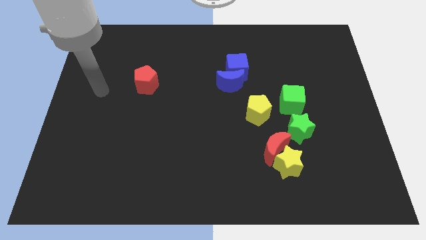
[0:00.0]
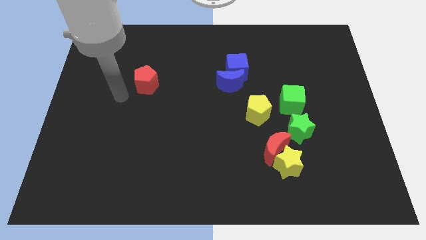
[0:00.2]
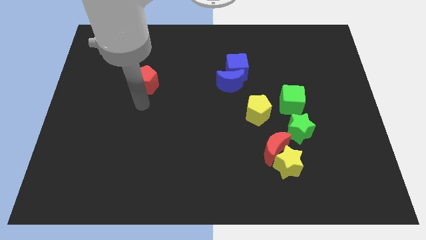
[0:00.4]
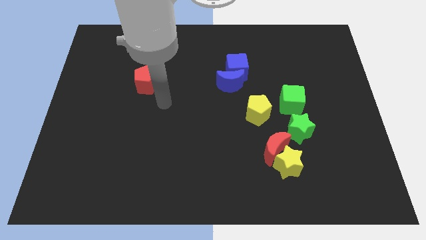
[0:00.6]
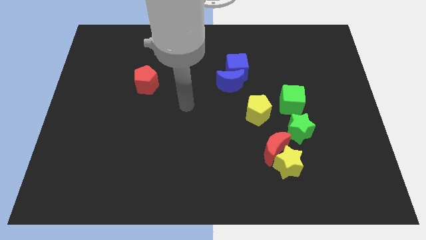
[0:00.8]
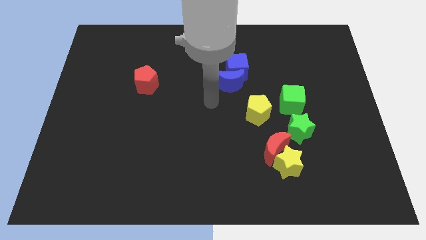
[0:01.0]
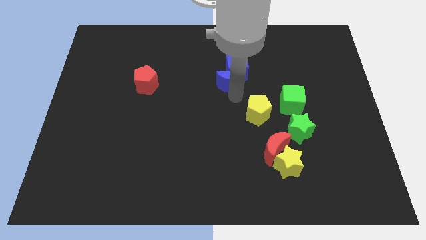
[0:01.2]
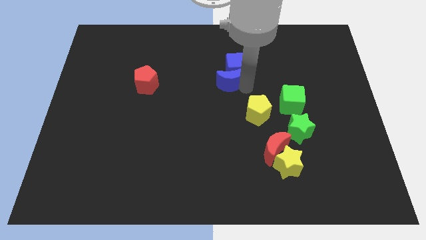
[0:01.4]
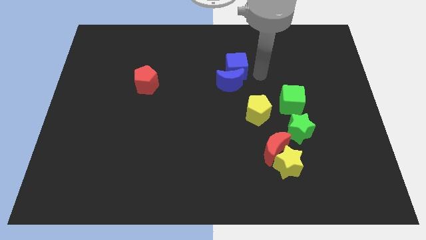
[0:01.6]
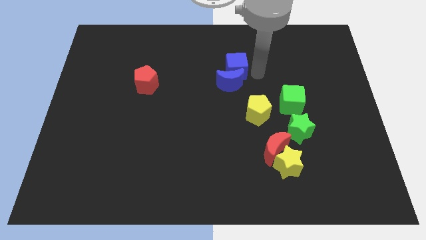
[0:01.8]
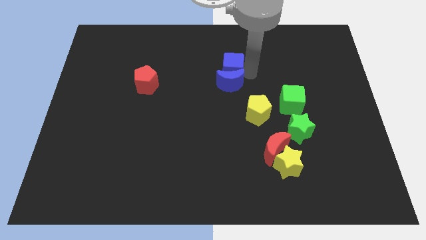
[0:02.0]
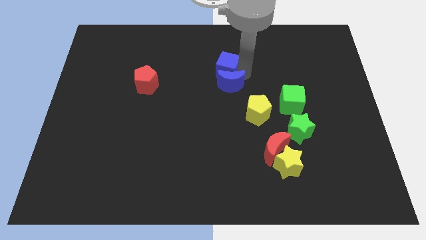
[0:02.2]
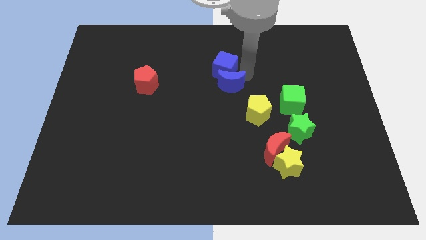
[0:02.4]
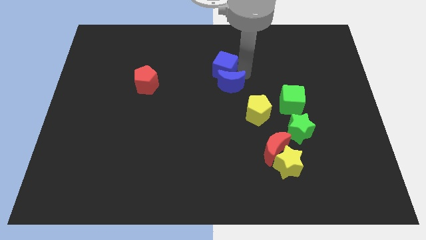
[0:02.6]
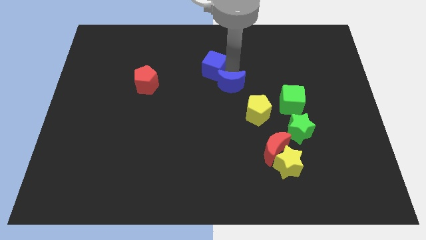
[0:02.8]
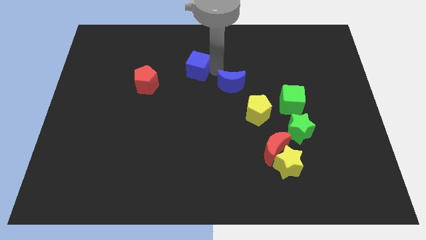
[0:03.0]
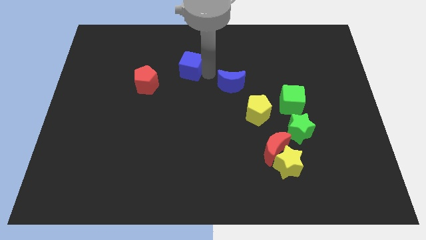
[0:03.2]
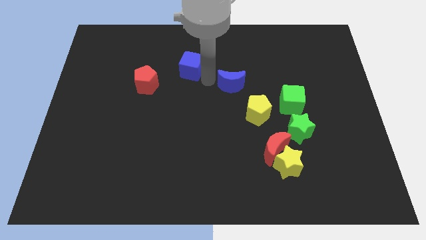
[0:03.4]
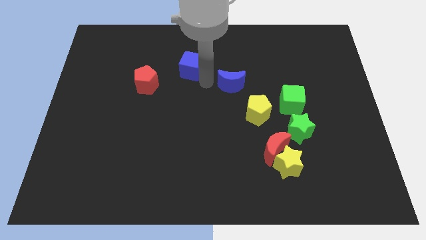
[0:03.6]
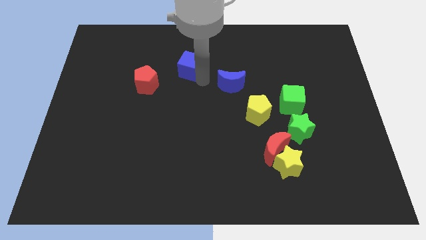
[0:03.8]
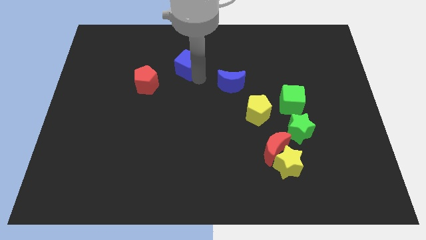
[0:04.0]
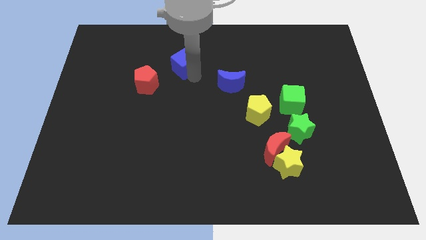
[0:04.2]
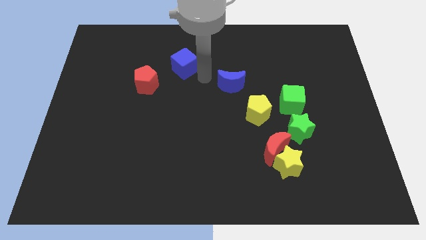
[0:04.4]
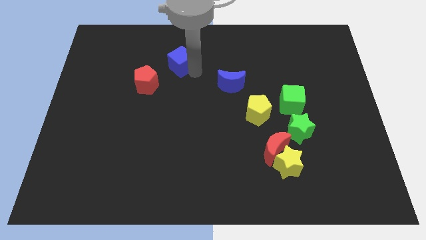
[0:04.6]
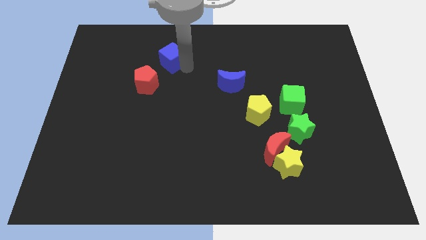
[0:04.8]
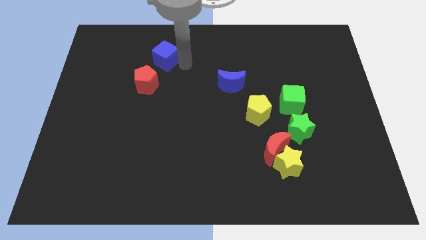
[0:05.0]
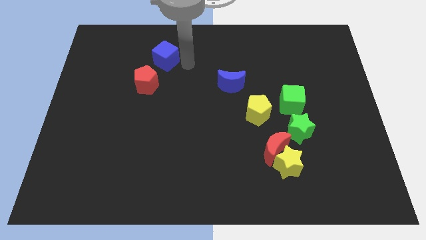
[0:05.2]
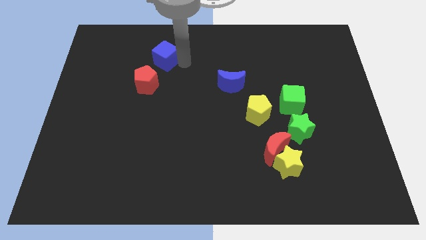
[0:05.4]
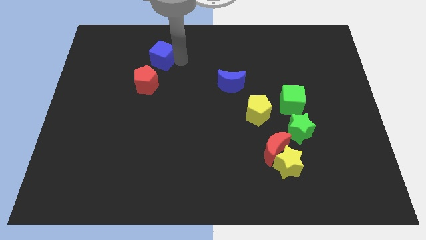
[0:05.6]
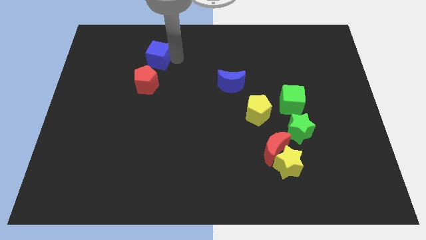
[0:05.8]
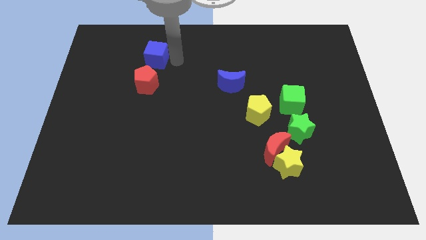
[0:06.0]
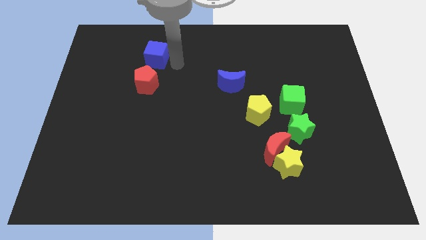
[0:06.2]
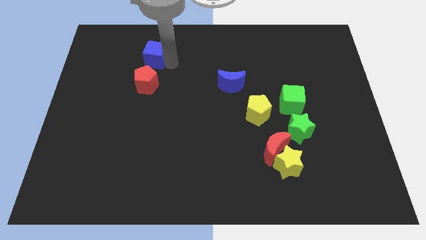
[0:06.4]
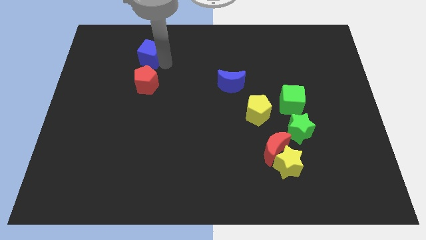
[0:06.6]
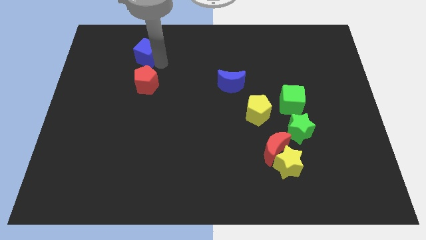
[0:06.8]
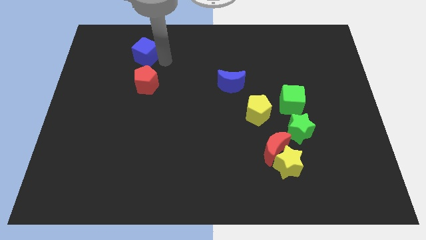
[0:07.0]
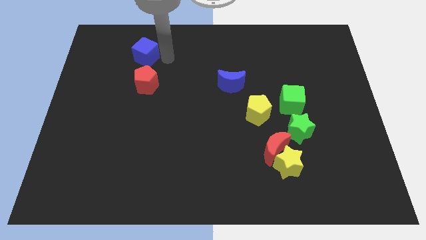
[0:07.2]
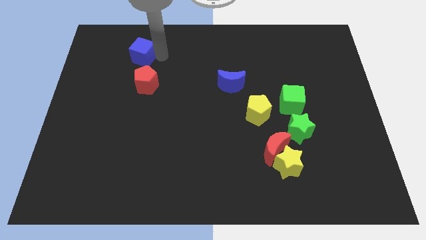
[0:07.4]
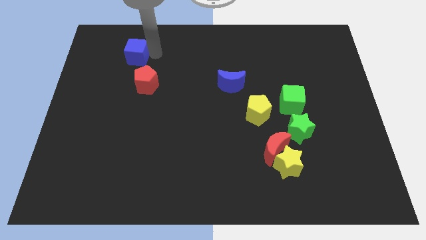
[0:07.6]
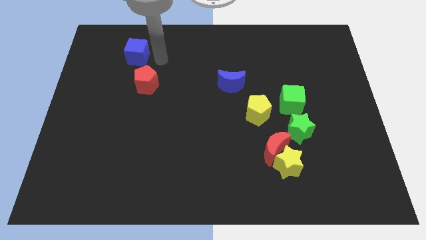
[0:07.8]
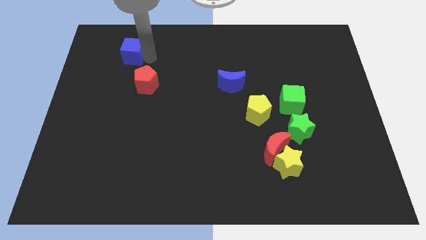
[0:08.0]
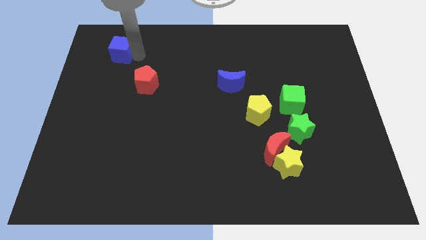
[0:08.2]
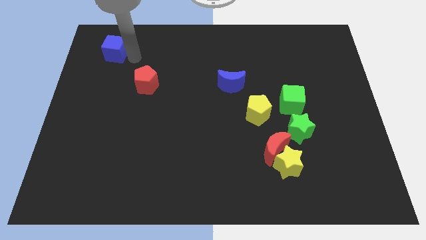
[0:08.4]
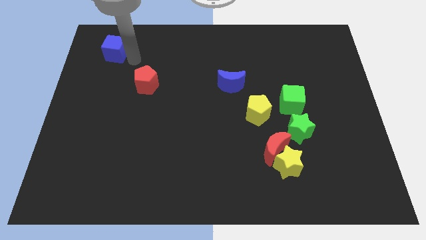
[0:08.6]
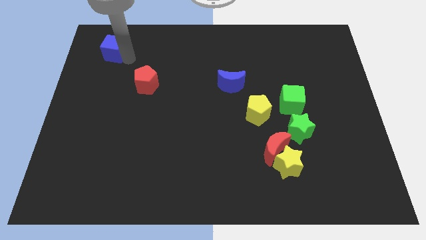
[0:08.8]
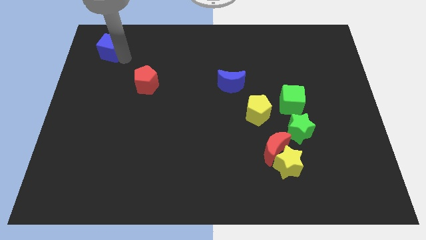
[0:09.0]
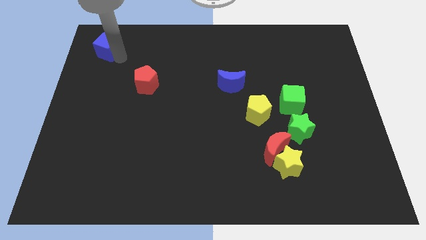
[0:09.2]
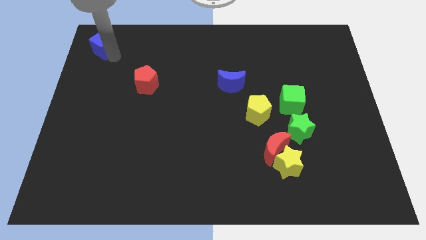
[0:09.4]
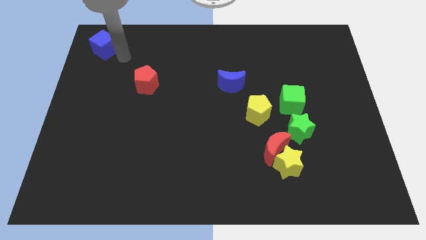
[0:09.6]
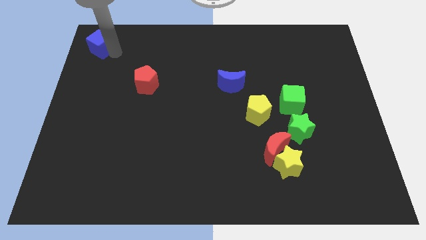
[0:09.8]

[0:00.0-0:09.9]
slide the blue cube to the top left corner

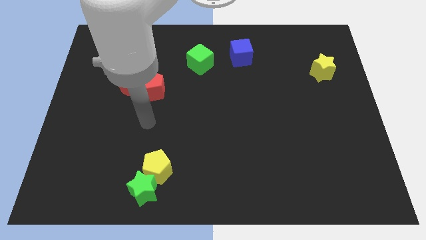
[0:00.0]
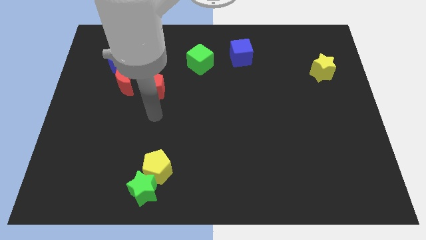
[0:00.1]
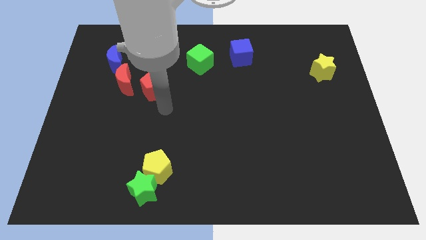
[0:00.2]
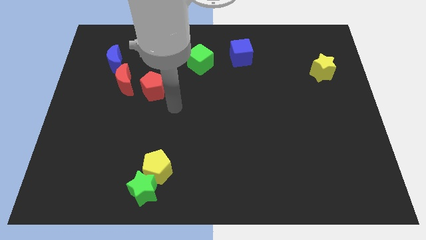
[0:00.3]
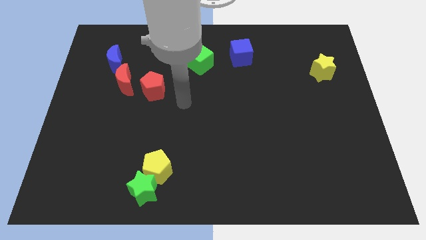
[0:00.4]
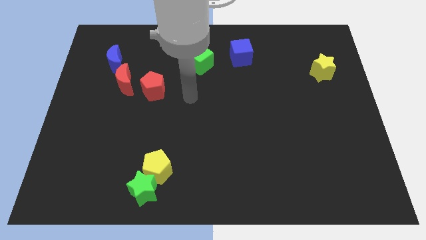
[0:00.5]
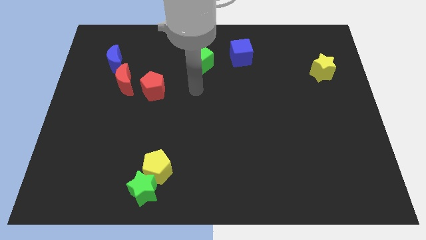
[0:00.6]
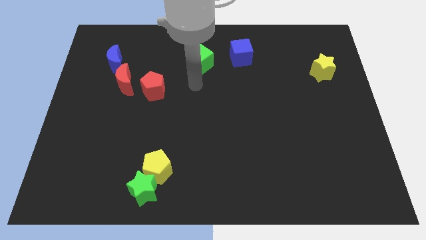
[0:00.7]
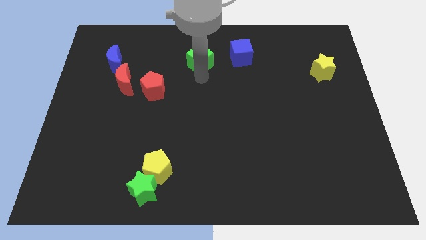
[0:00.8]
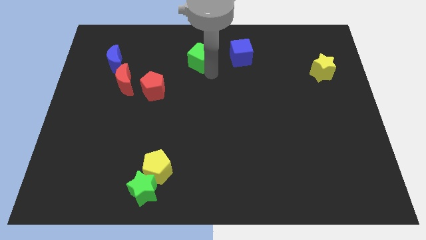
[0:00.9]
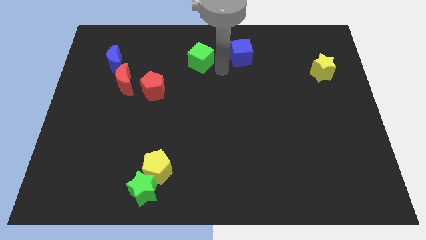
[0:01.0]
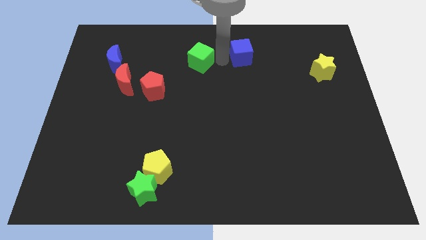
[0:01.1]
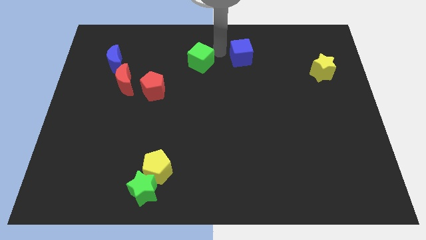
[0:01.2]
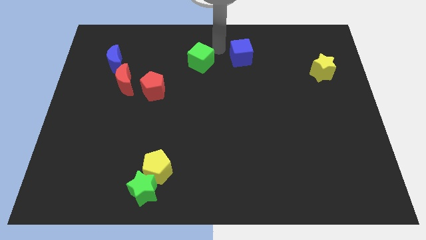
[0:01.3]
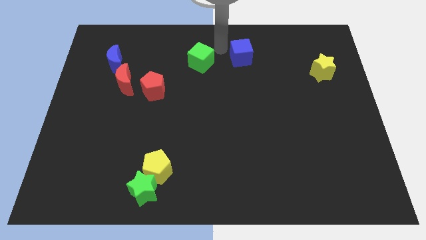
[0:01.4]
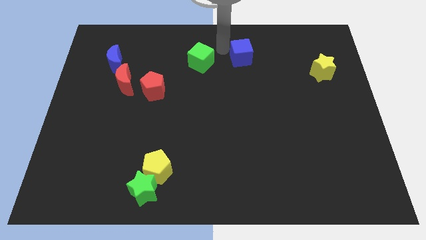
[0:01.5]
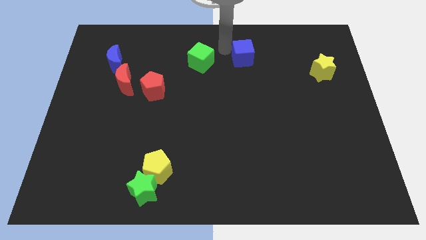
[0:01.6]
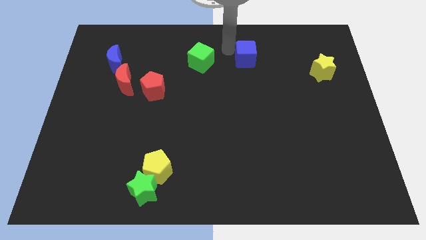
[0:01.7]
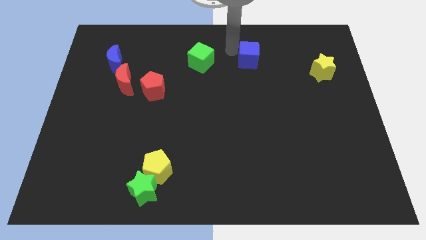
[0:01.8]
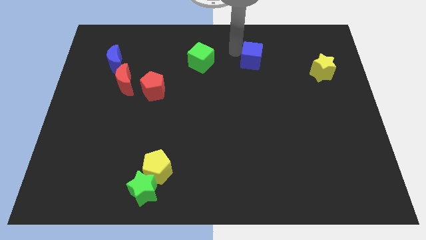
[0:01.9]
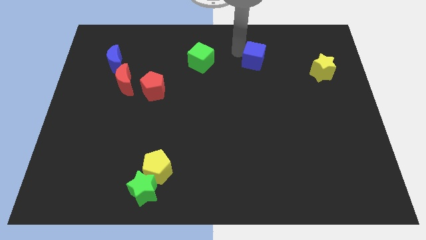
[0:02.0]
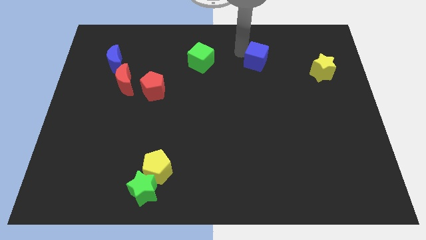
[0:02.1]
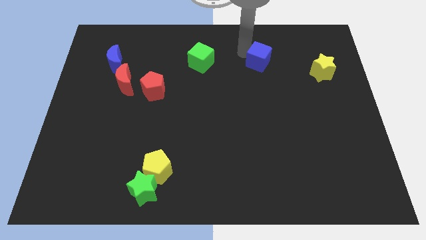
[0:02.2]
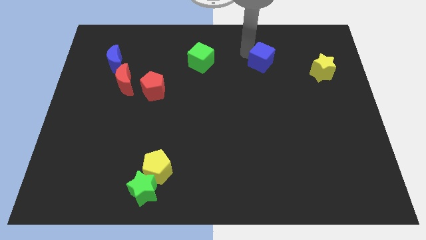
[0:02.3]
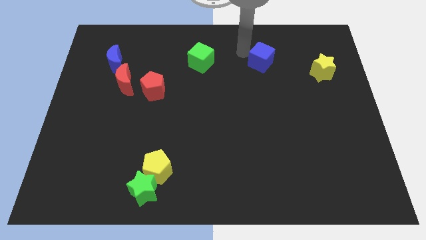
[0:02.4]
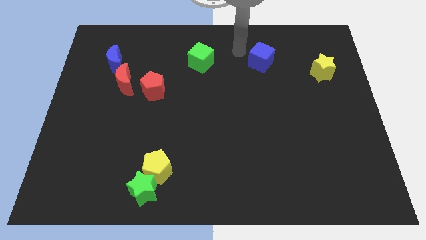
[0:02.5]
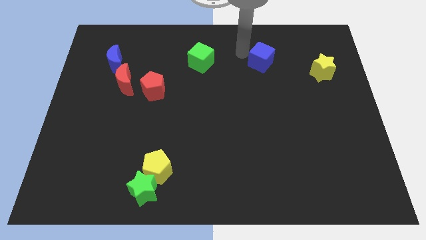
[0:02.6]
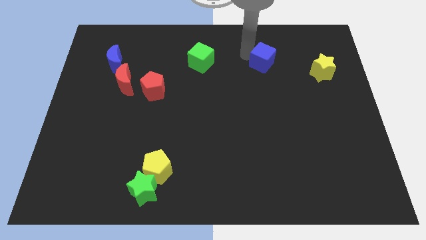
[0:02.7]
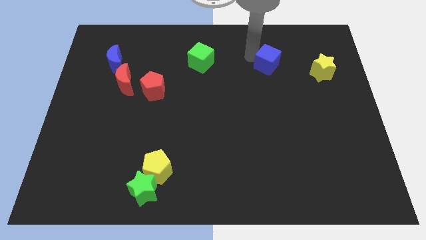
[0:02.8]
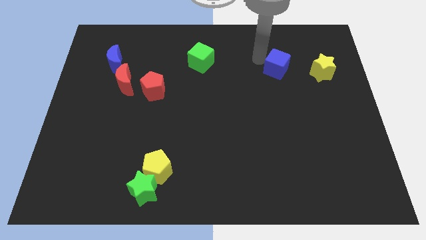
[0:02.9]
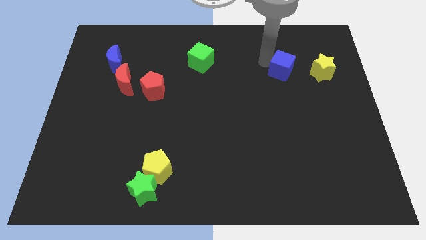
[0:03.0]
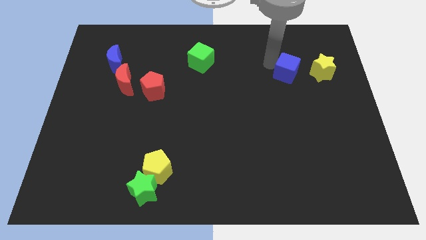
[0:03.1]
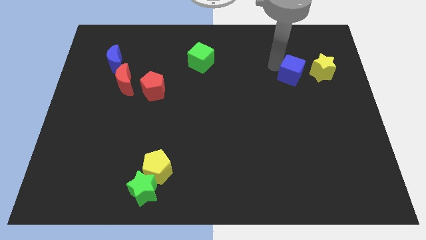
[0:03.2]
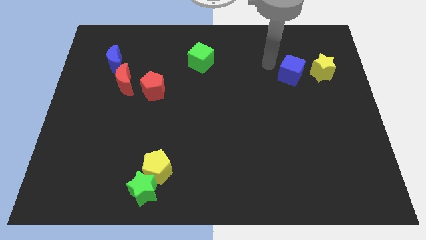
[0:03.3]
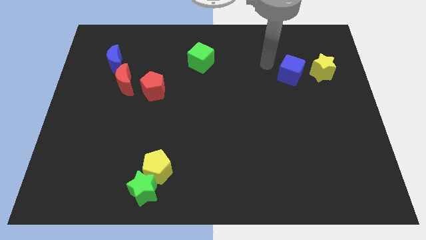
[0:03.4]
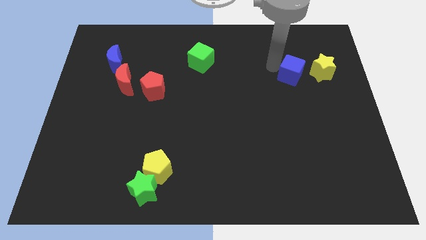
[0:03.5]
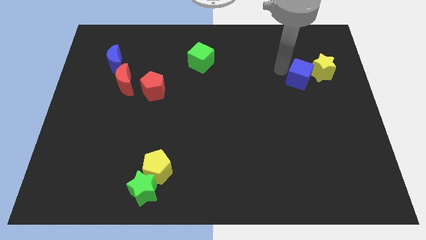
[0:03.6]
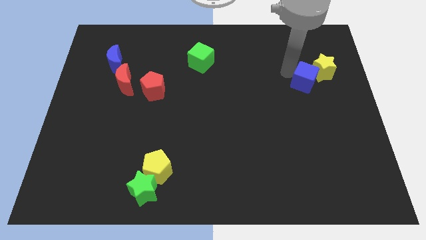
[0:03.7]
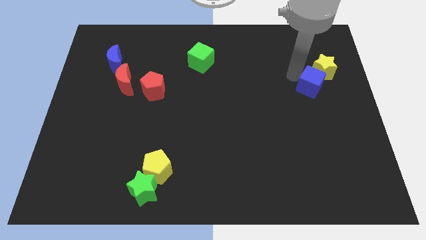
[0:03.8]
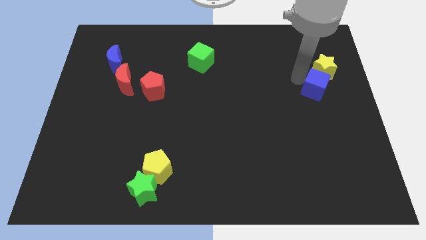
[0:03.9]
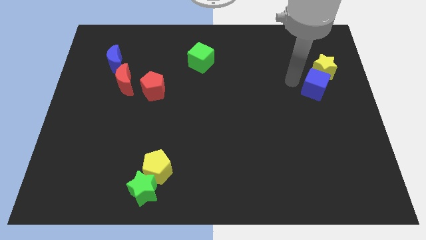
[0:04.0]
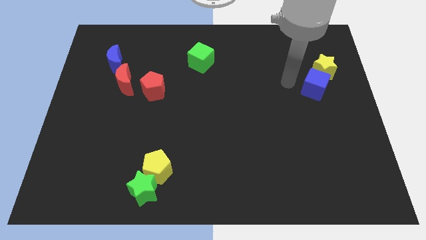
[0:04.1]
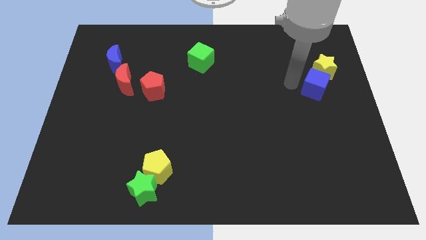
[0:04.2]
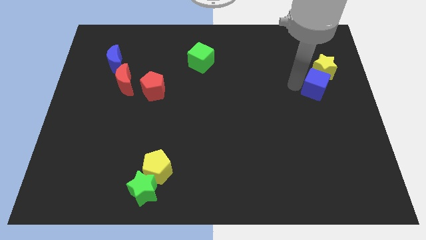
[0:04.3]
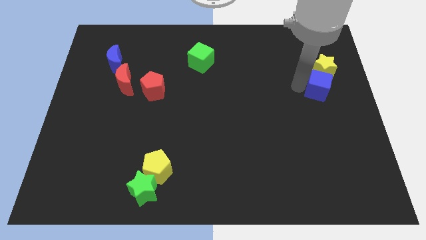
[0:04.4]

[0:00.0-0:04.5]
move the blue cube to the center right
